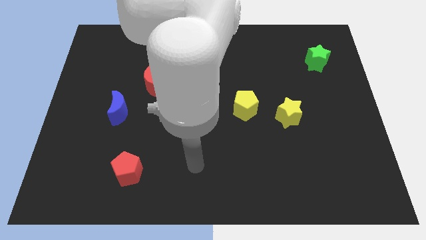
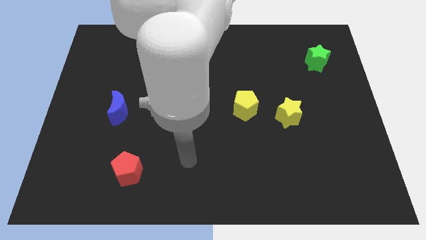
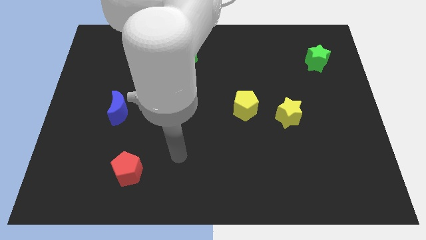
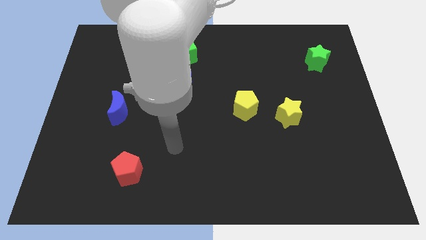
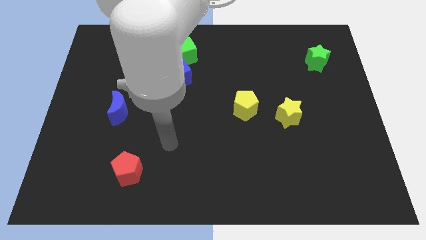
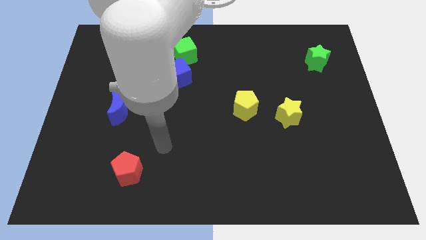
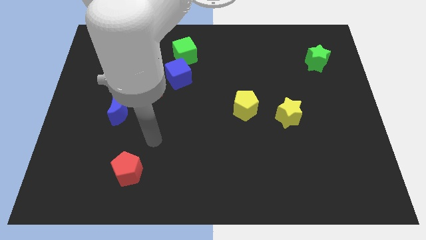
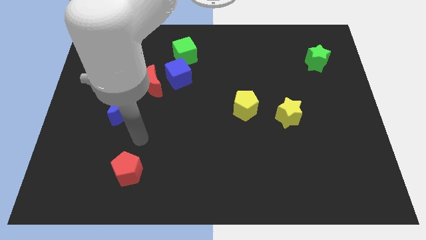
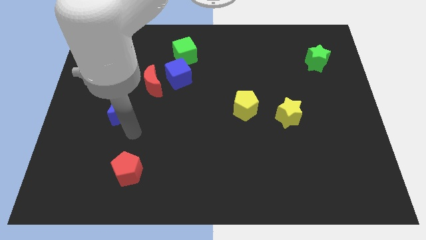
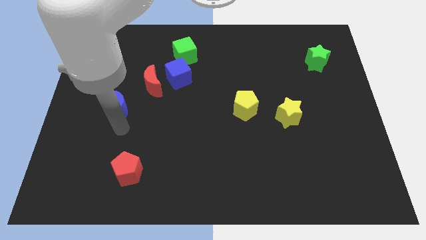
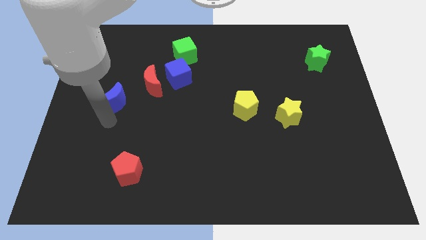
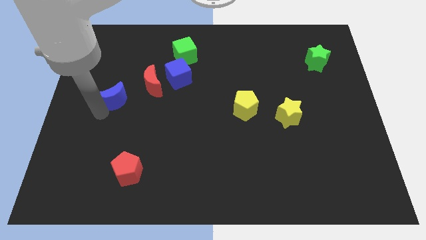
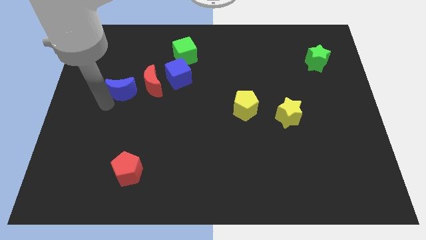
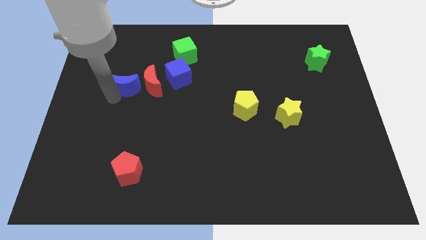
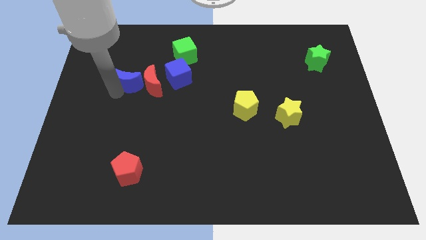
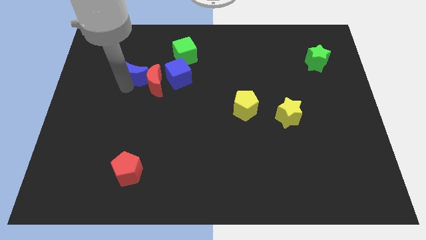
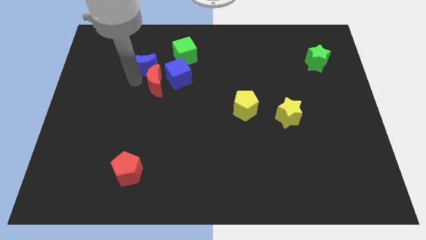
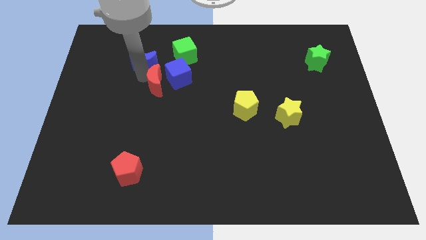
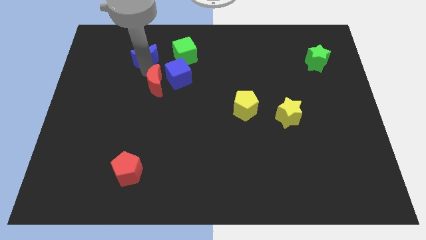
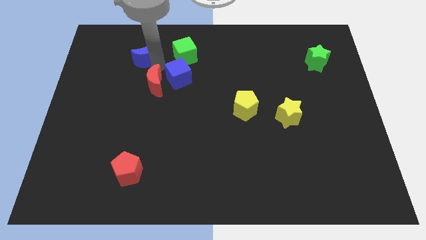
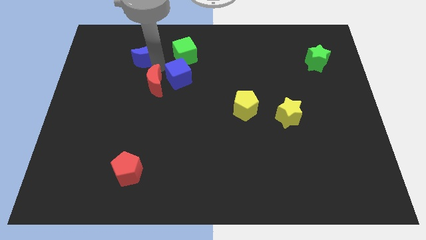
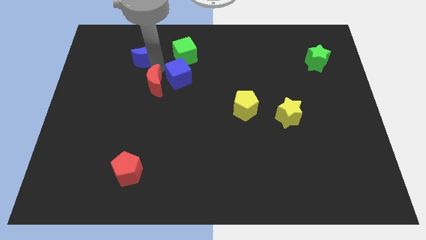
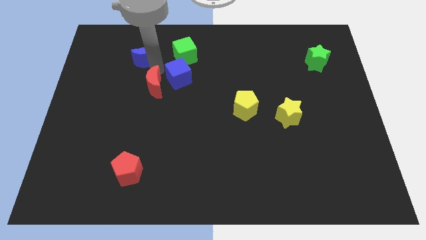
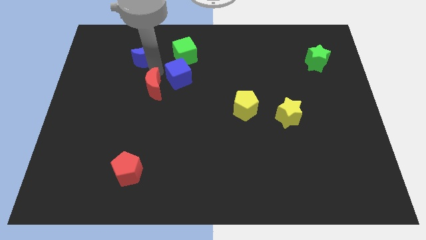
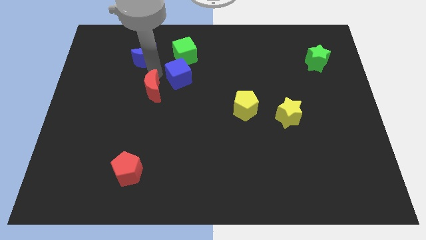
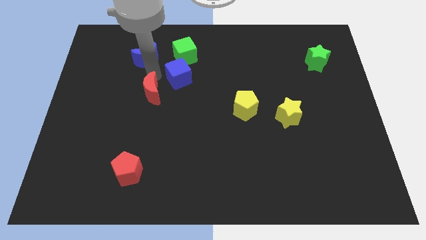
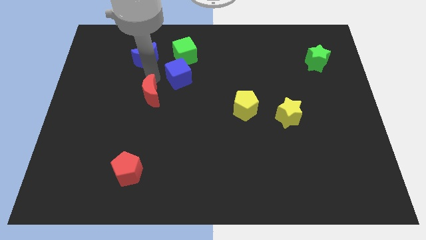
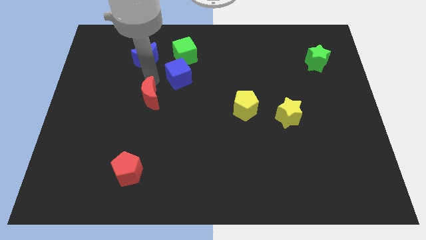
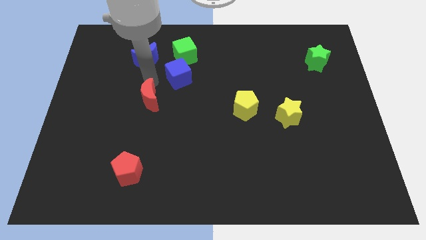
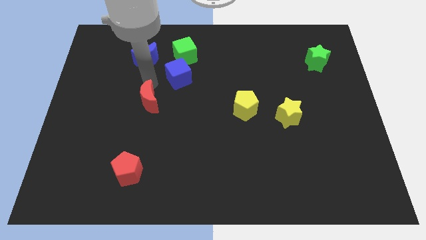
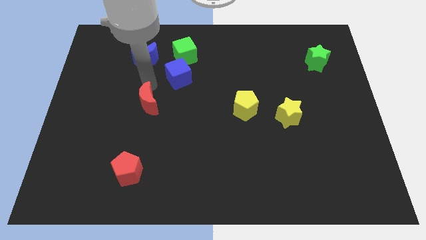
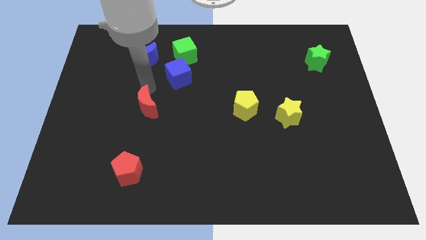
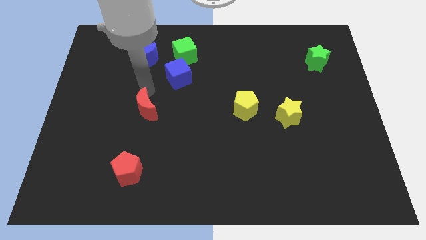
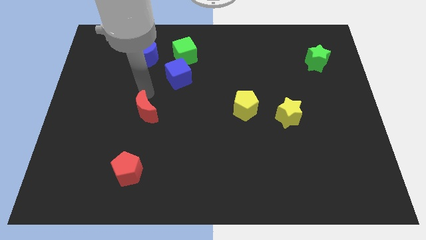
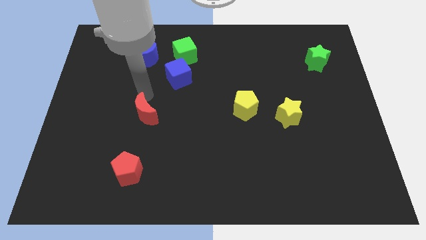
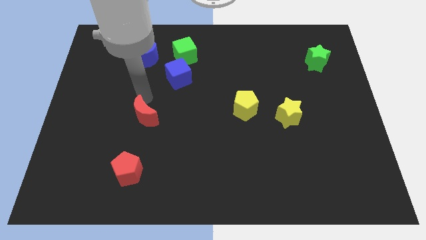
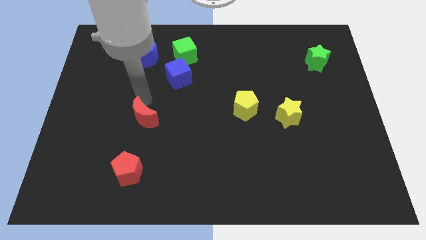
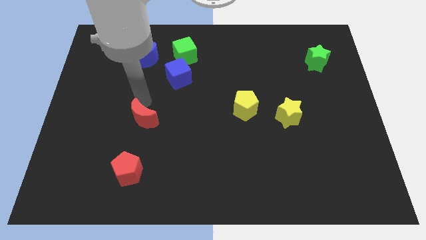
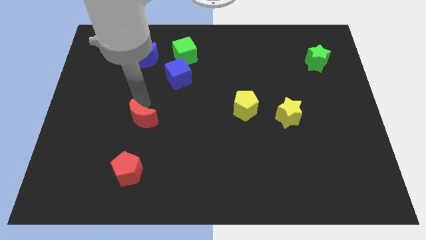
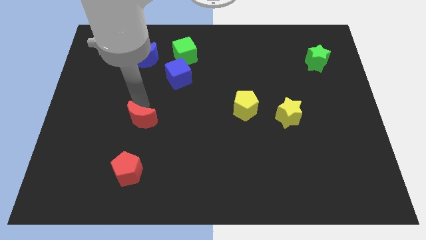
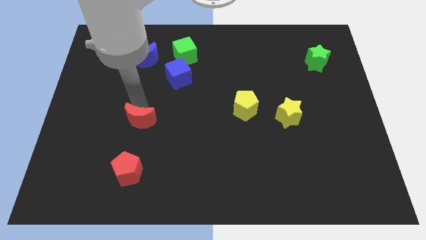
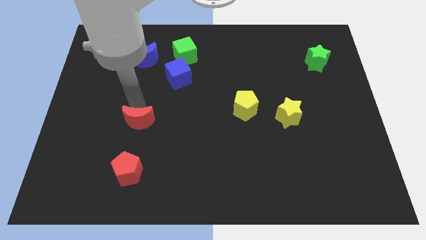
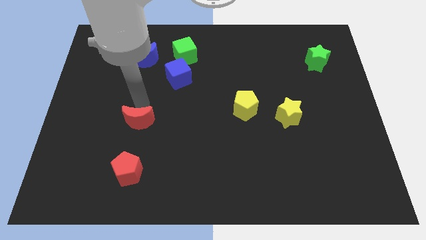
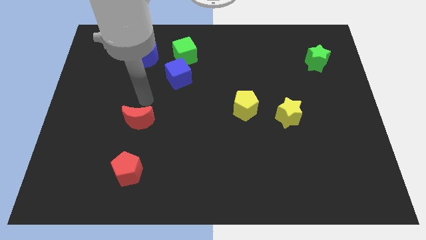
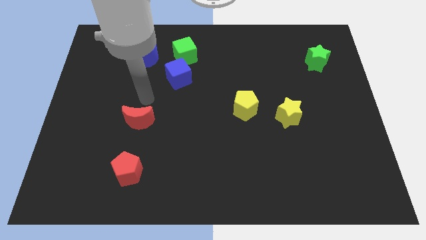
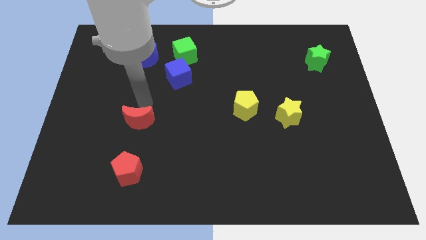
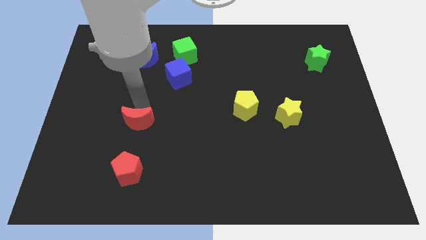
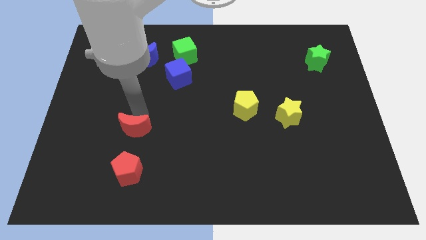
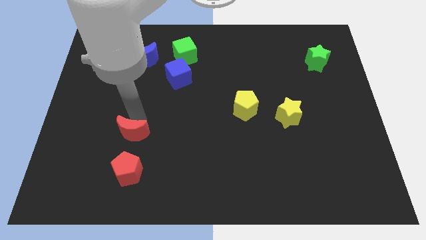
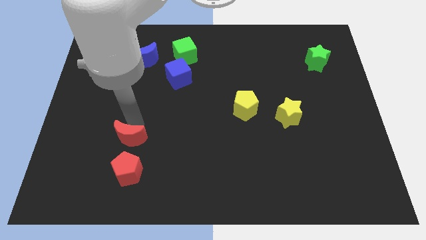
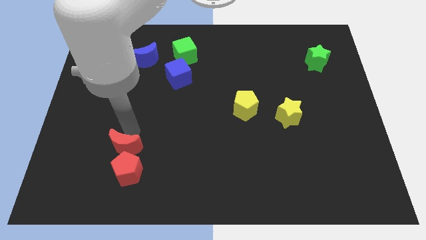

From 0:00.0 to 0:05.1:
move the red moon to the red pentagon

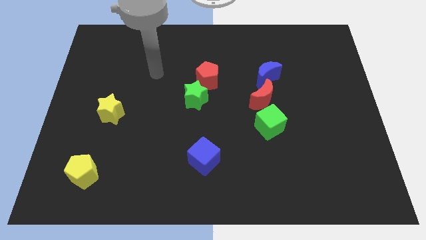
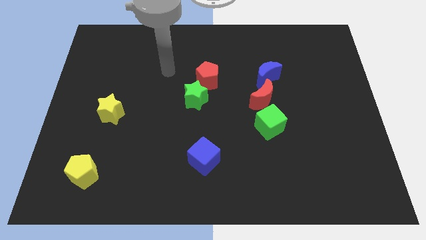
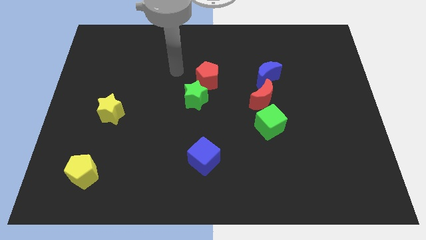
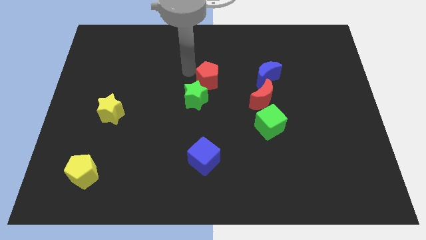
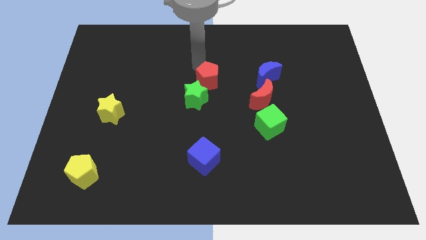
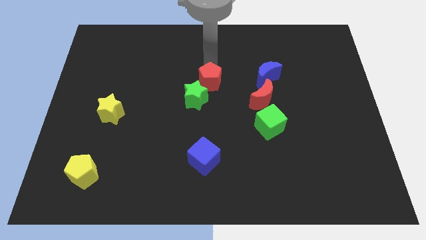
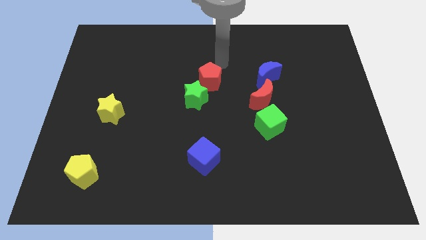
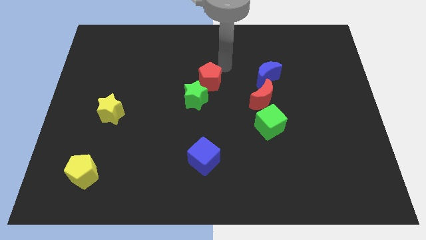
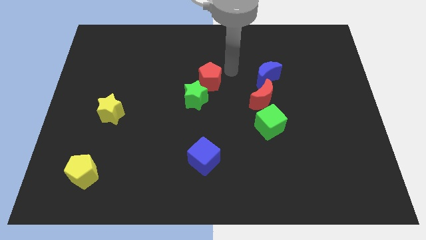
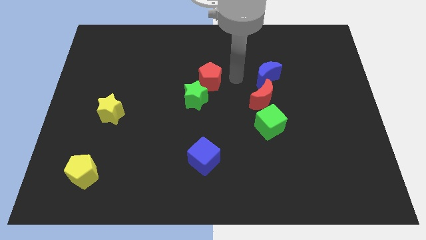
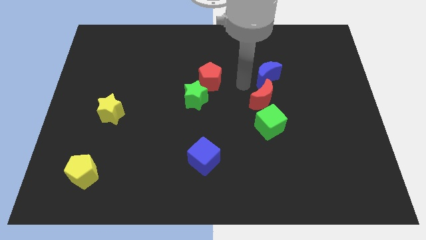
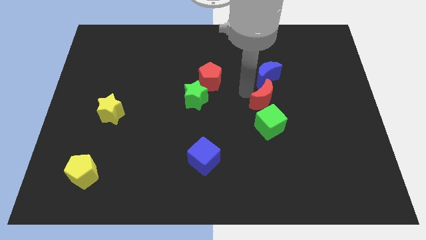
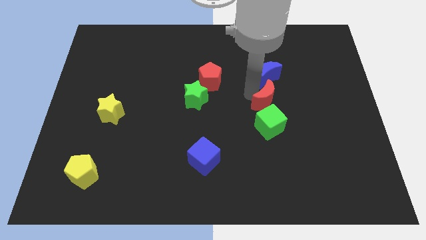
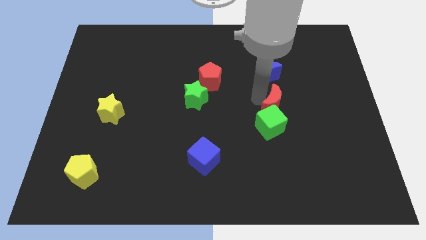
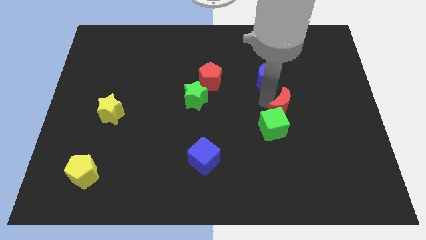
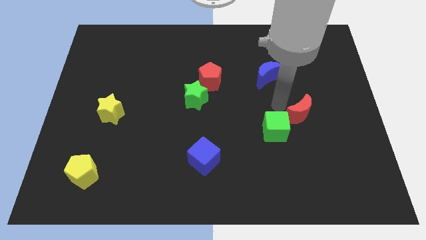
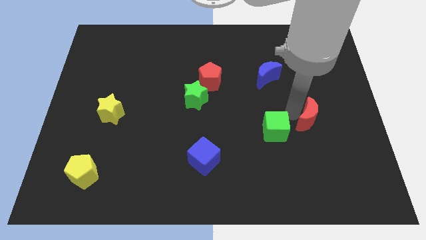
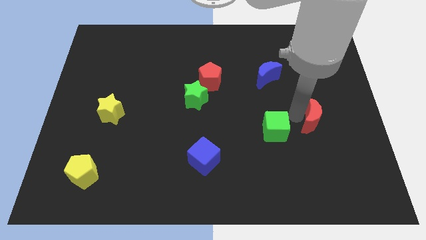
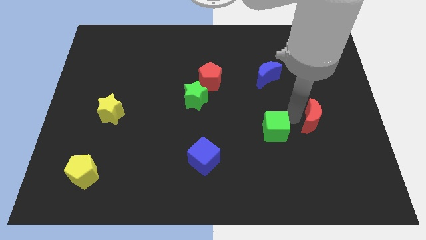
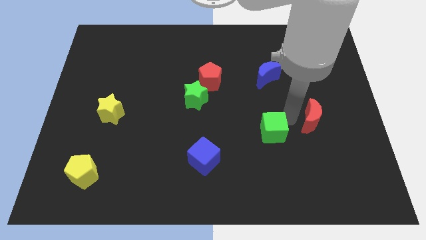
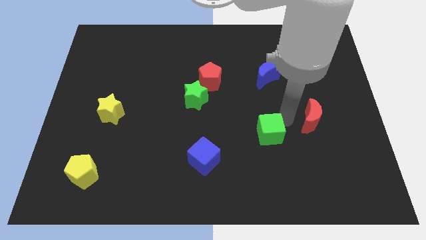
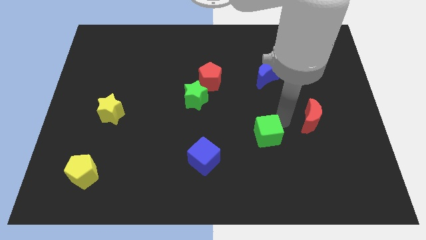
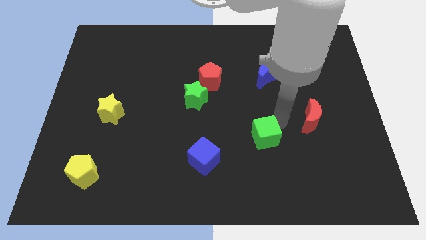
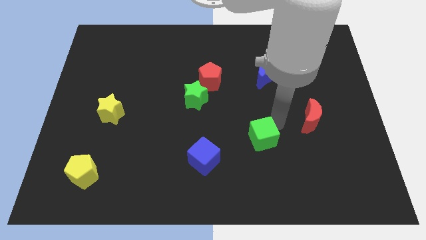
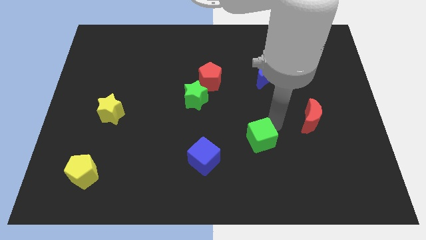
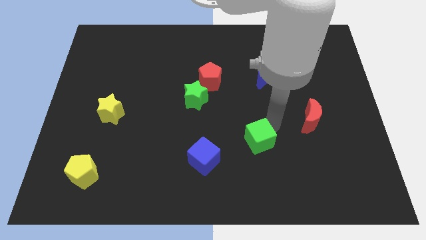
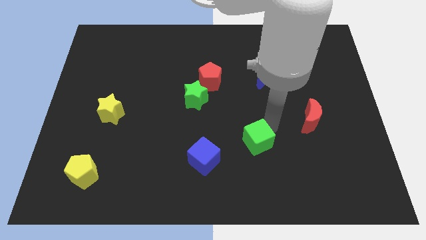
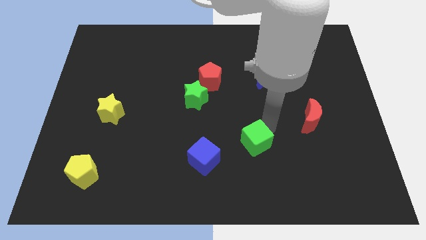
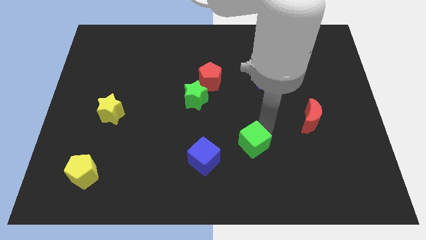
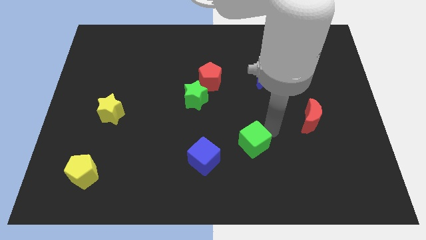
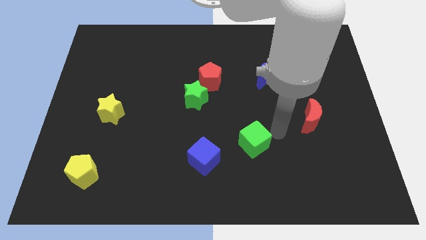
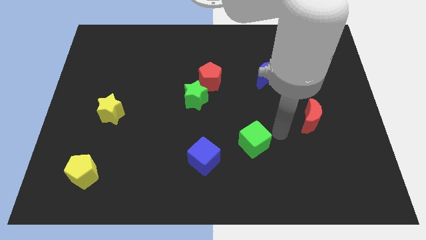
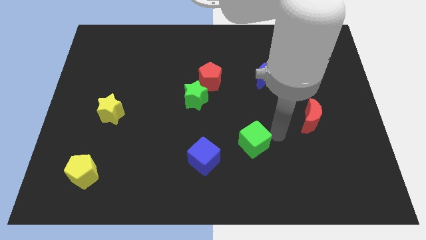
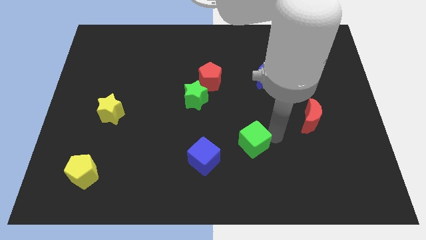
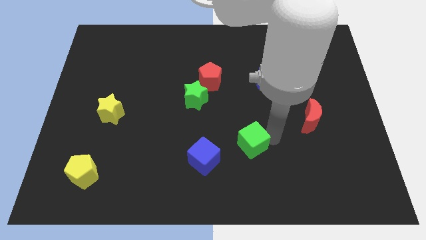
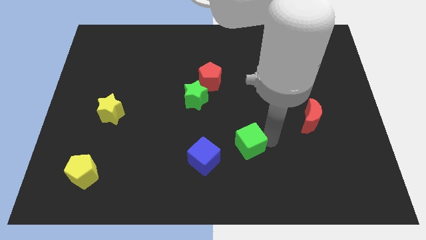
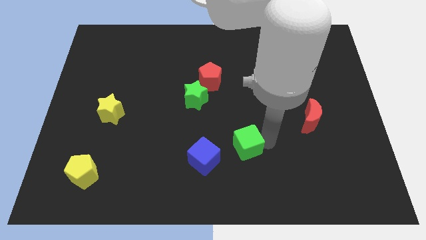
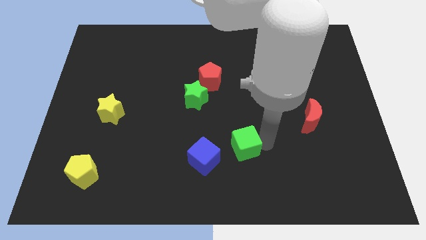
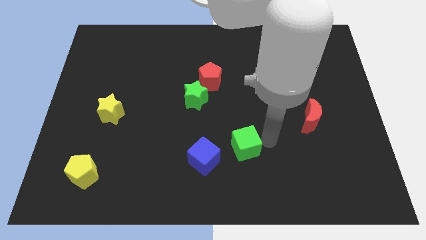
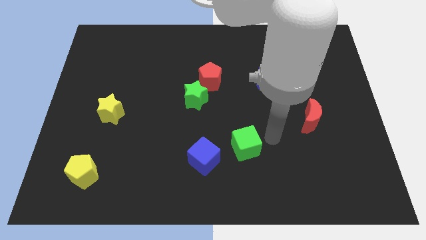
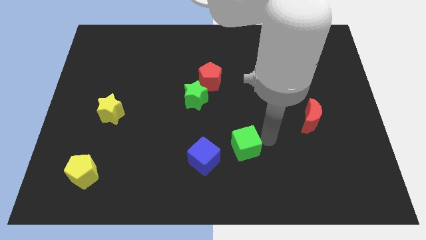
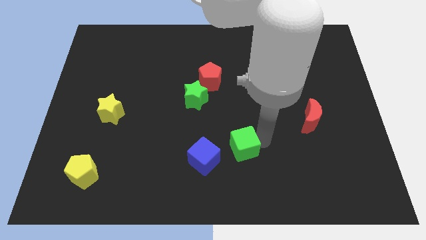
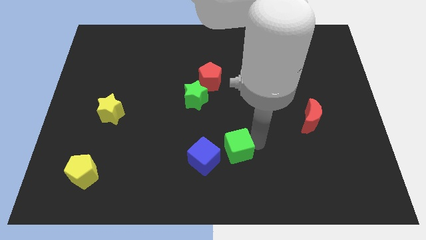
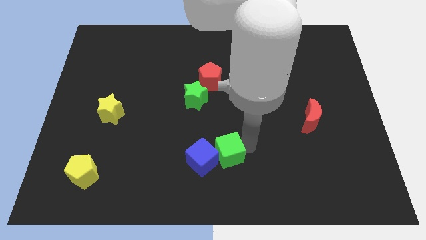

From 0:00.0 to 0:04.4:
move the green cube close to the blue cube
